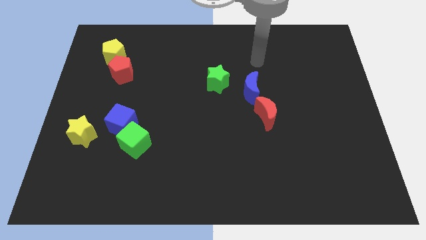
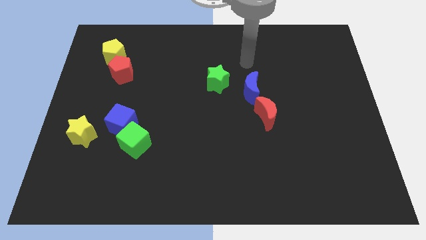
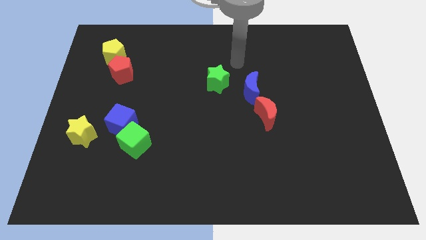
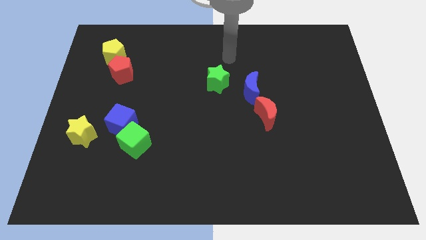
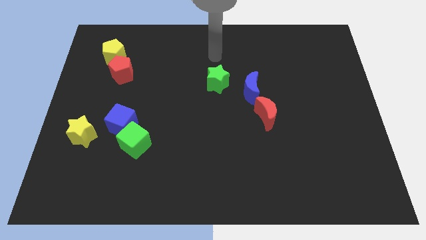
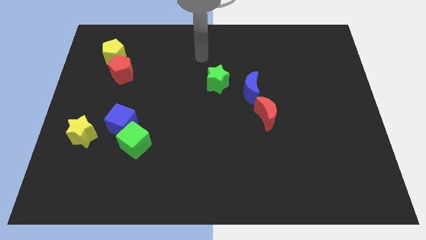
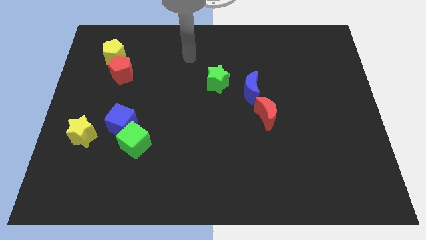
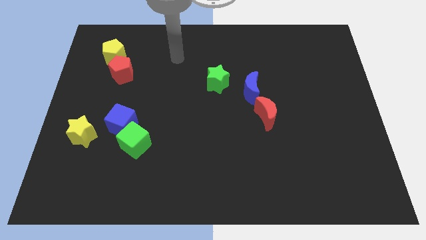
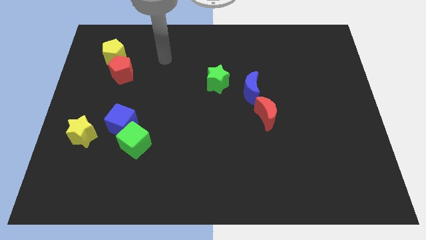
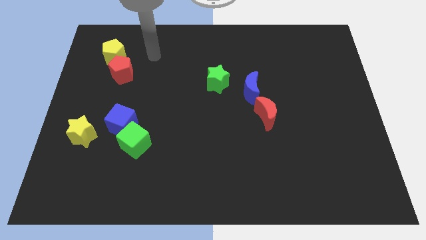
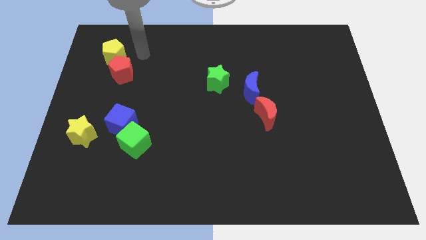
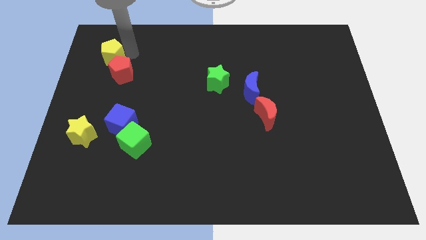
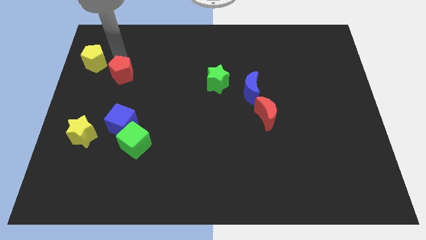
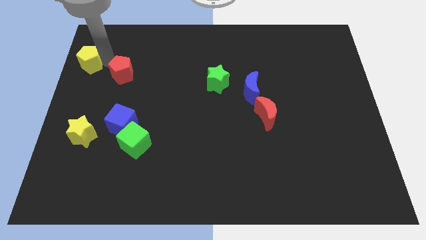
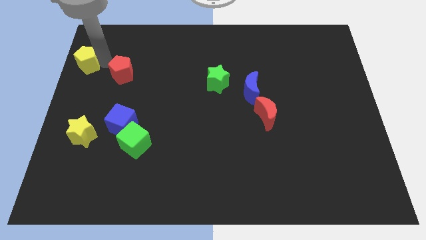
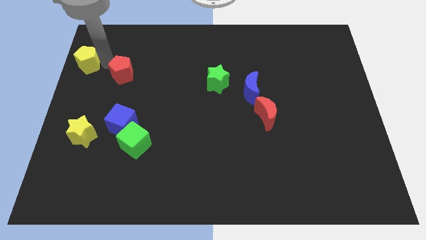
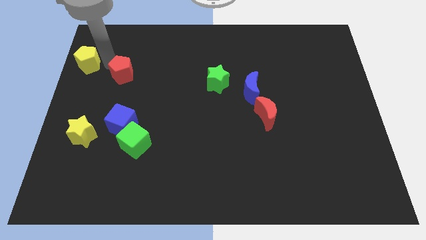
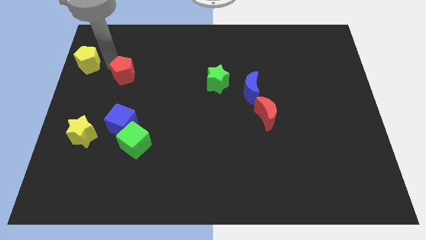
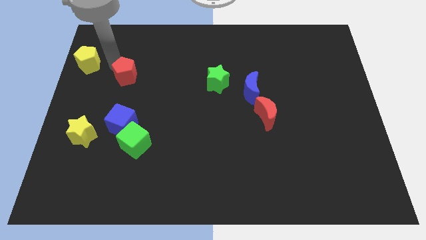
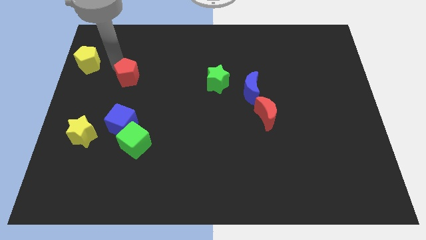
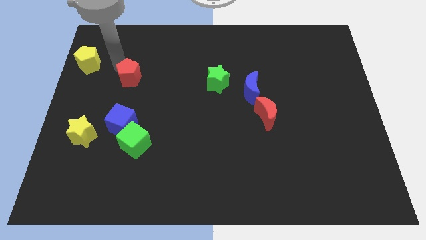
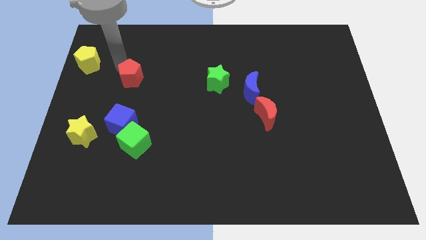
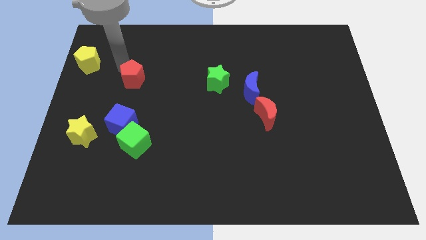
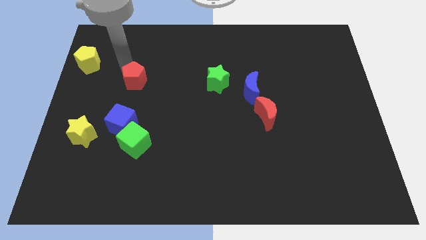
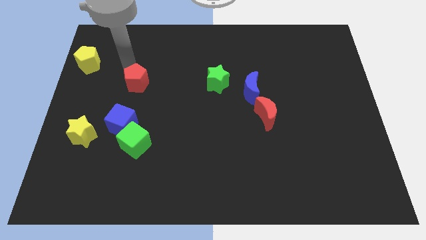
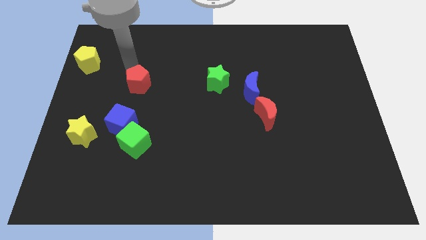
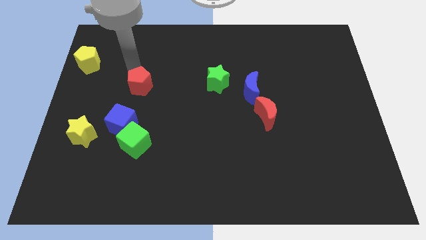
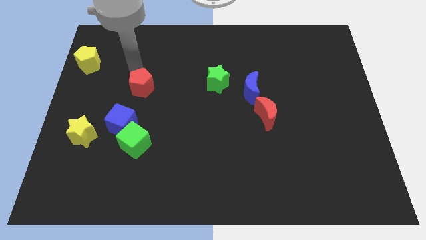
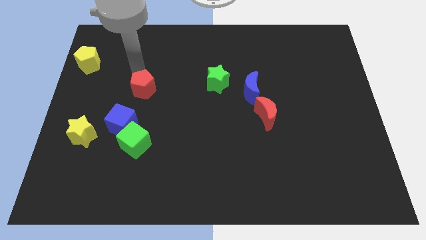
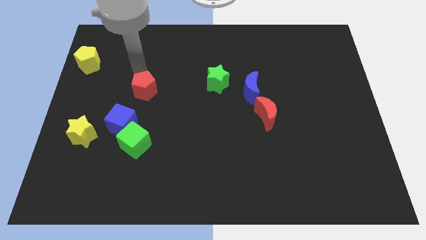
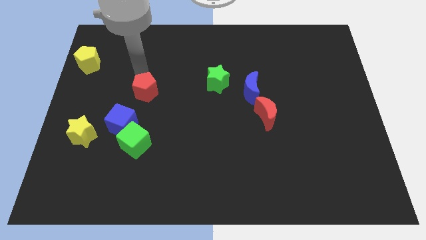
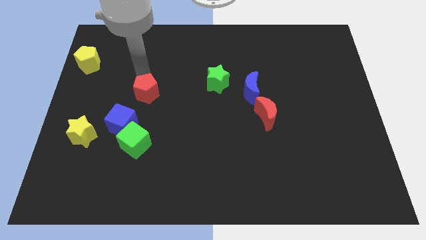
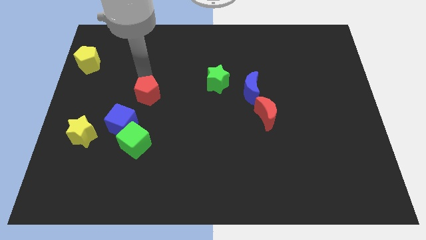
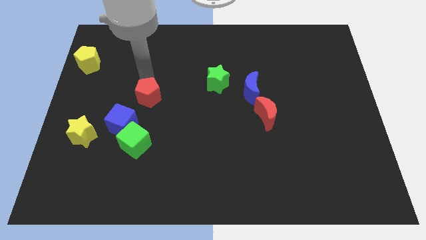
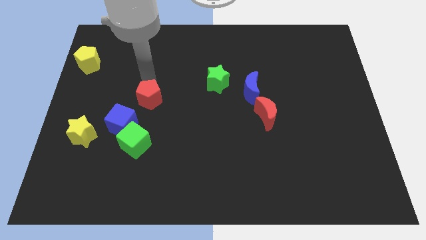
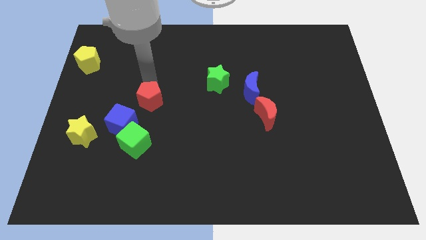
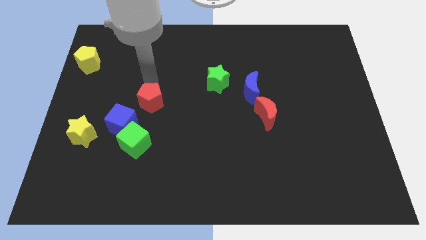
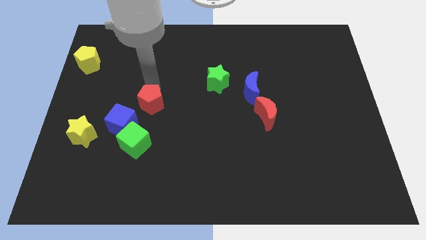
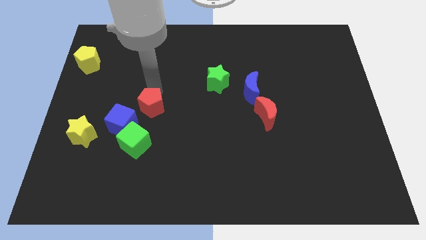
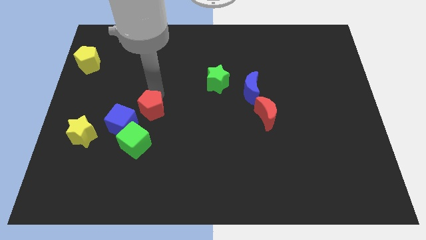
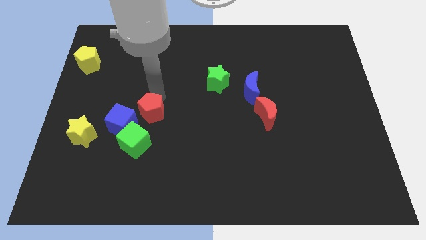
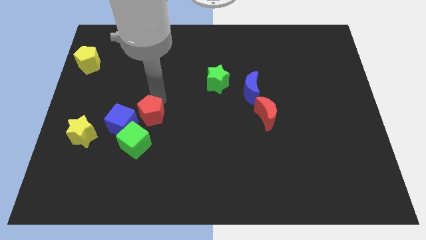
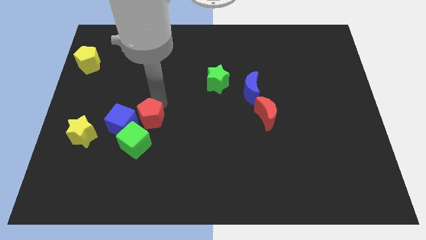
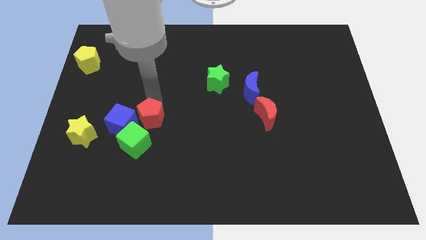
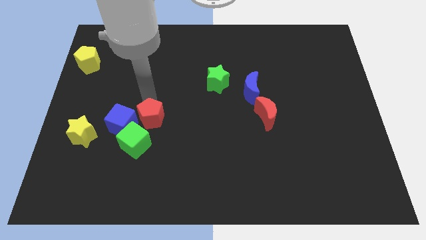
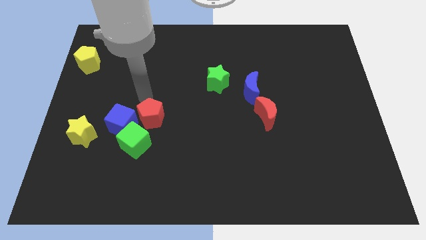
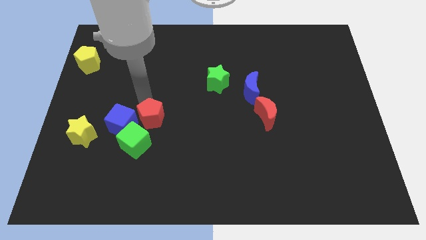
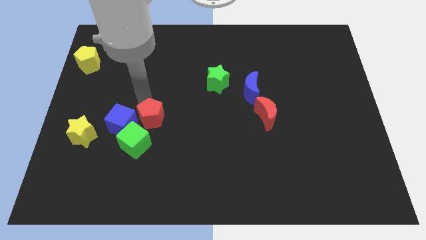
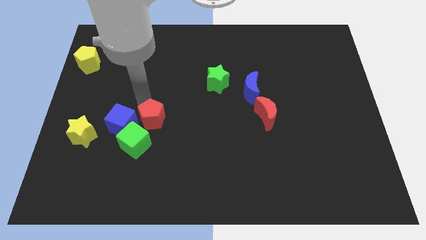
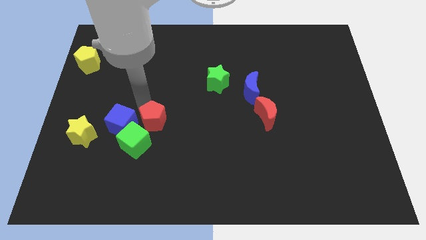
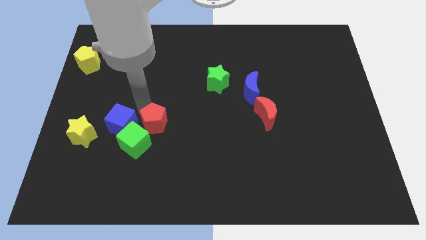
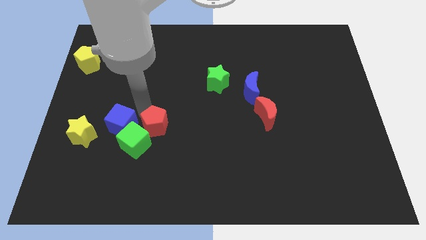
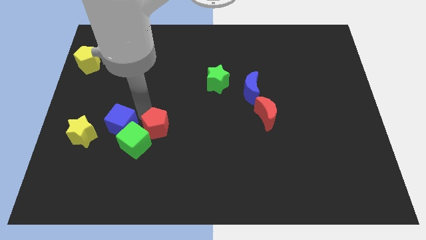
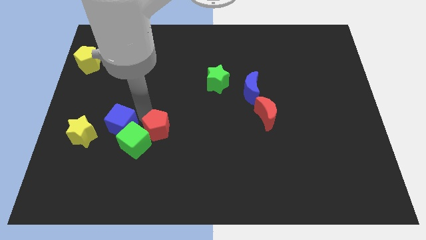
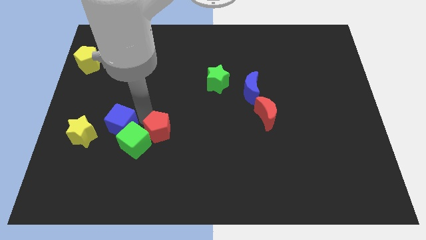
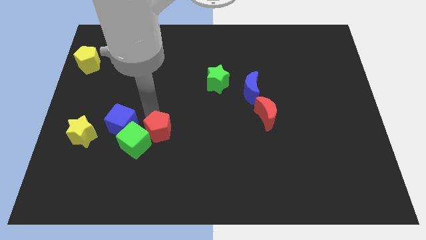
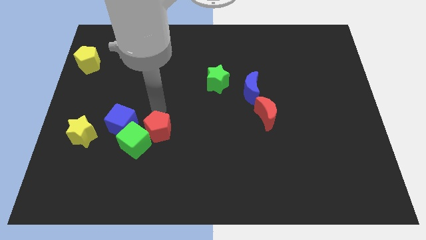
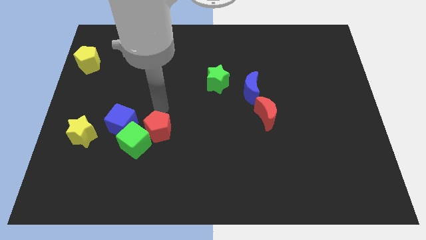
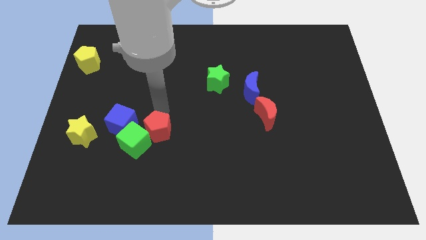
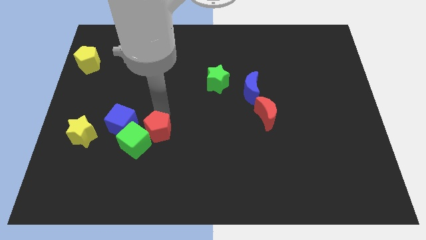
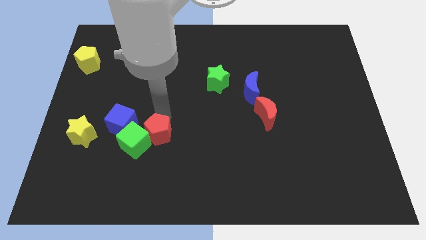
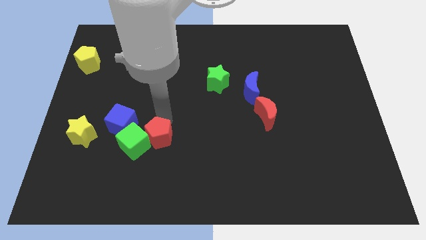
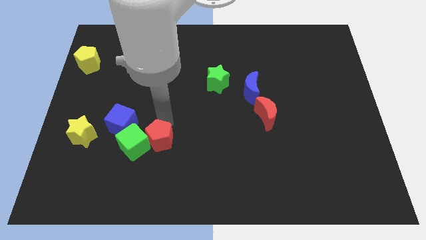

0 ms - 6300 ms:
put the red pentagon to the bottom right of the green cube
